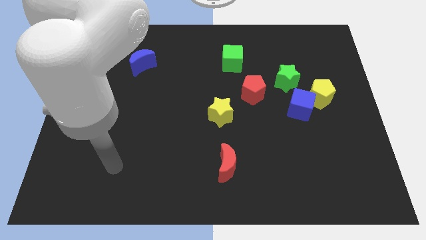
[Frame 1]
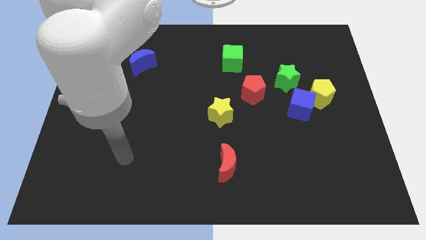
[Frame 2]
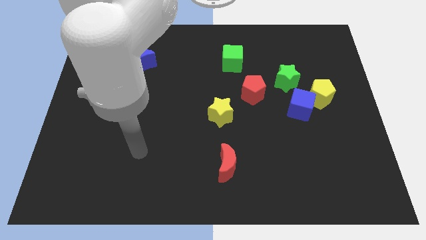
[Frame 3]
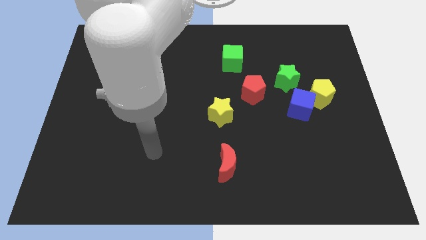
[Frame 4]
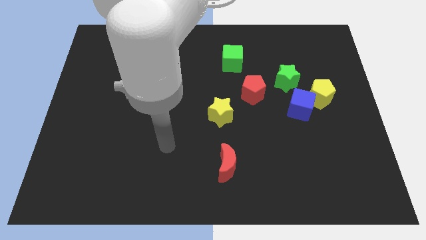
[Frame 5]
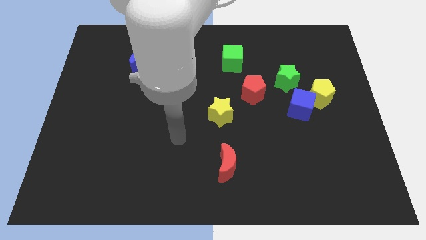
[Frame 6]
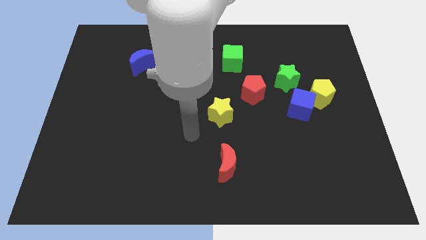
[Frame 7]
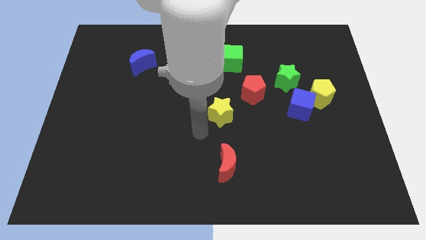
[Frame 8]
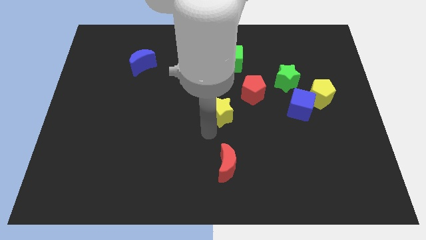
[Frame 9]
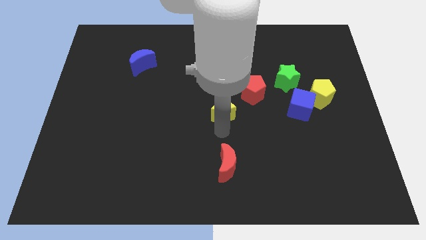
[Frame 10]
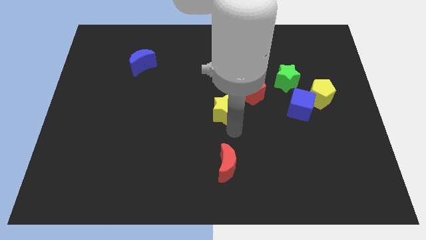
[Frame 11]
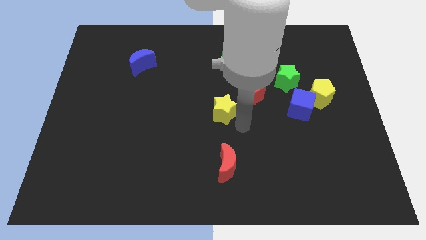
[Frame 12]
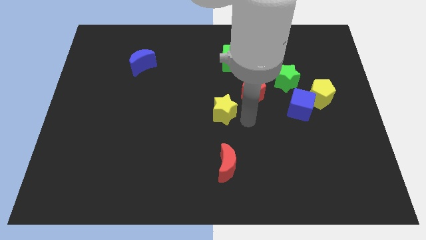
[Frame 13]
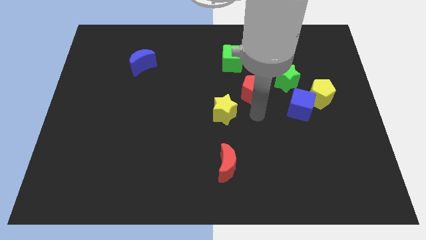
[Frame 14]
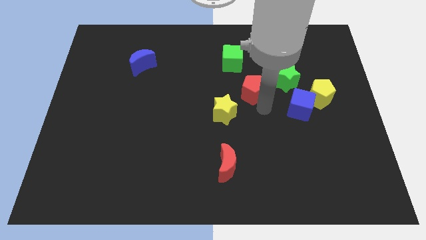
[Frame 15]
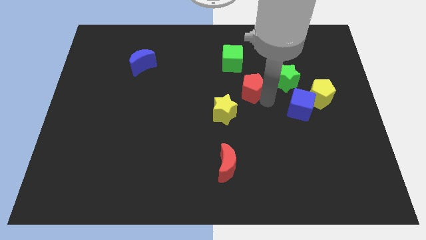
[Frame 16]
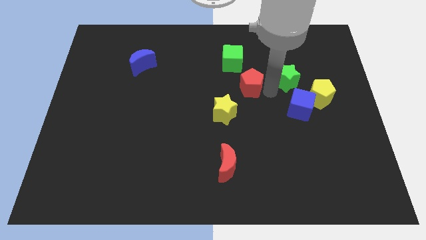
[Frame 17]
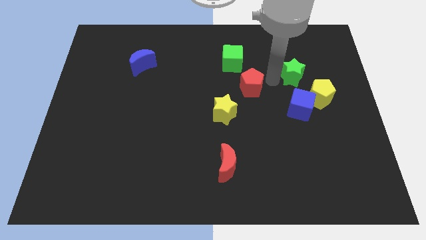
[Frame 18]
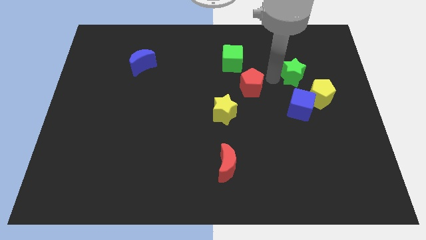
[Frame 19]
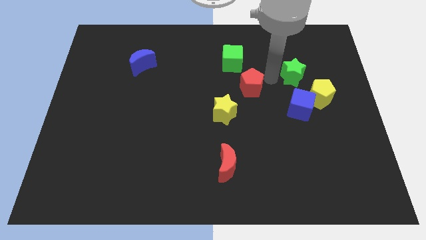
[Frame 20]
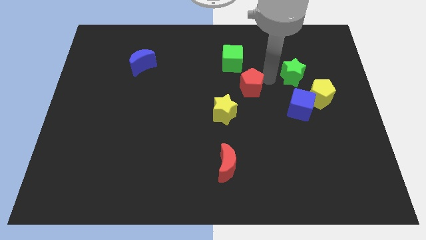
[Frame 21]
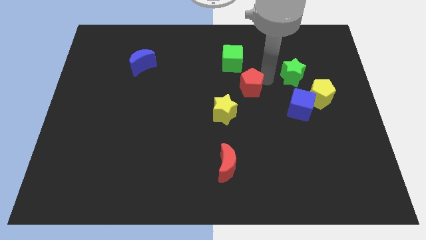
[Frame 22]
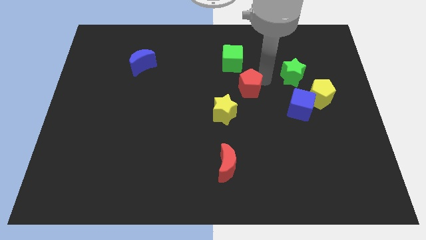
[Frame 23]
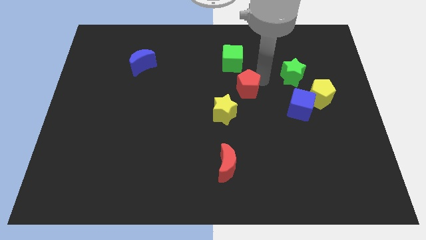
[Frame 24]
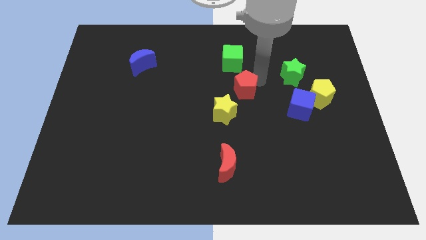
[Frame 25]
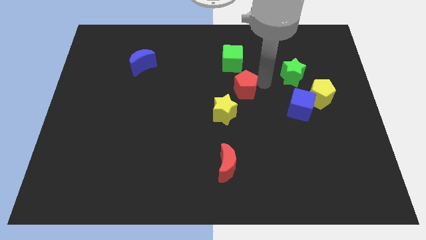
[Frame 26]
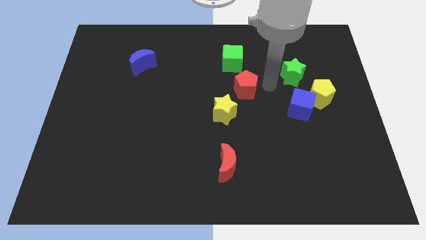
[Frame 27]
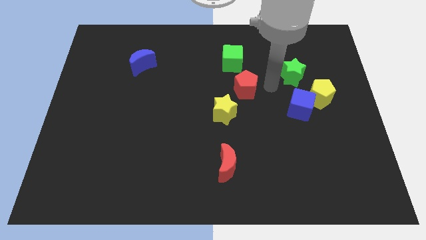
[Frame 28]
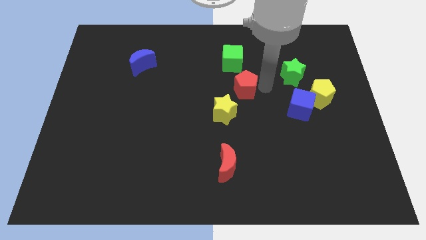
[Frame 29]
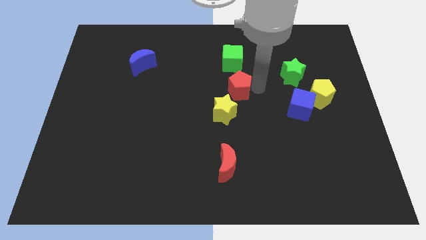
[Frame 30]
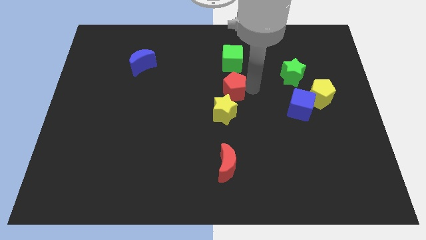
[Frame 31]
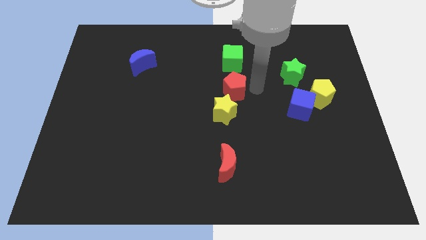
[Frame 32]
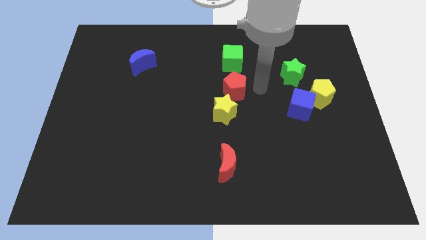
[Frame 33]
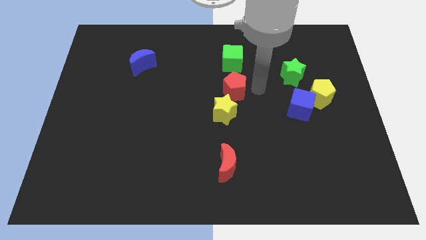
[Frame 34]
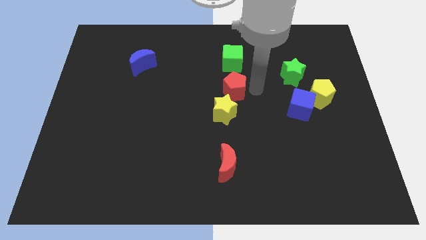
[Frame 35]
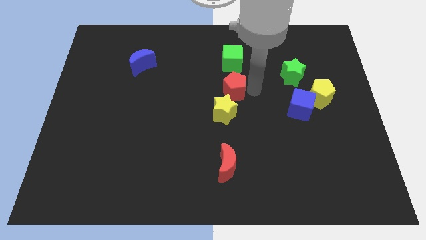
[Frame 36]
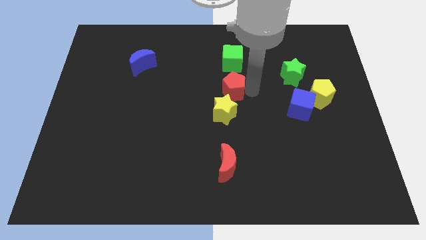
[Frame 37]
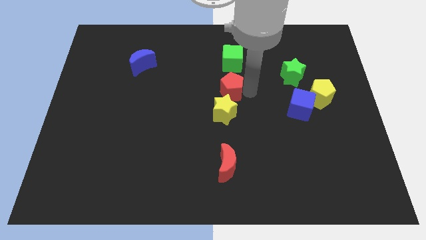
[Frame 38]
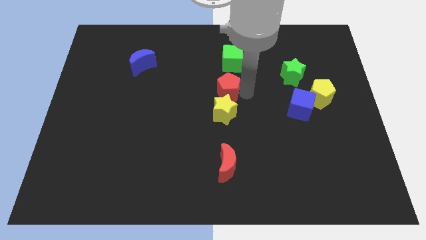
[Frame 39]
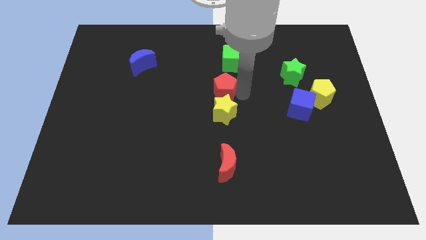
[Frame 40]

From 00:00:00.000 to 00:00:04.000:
push the red pentagon to the left a little

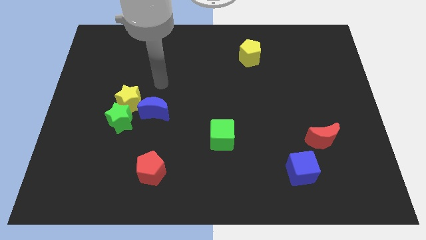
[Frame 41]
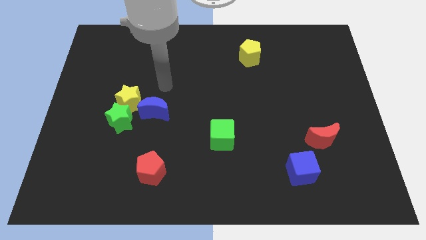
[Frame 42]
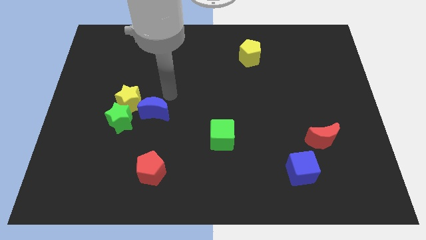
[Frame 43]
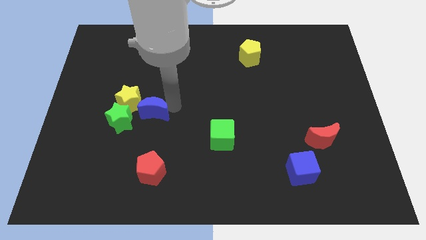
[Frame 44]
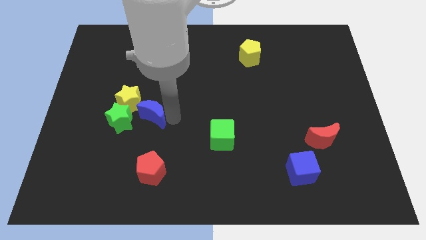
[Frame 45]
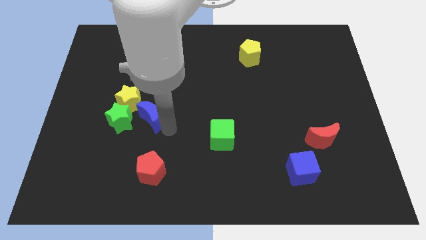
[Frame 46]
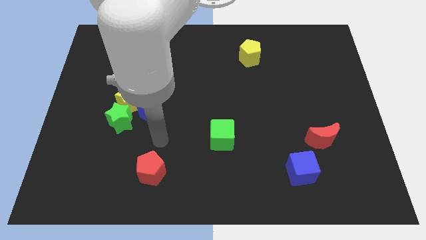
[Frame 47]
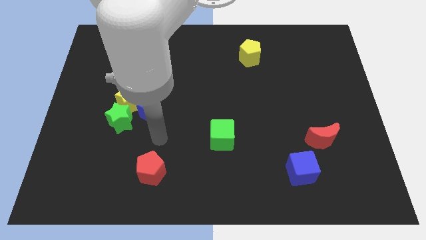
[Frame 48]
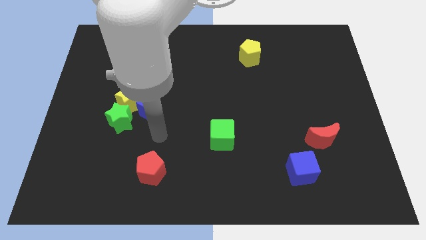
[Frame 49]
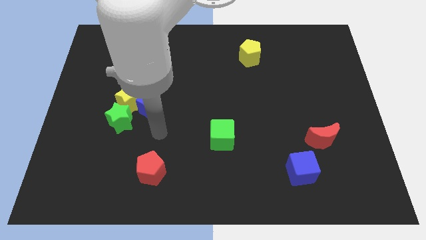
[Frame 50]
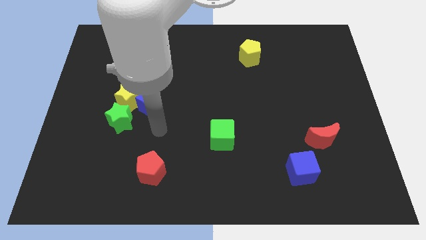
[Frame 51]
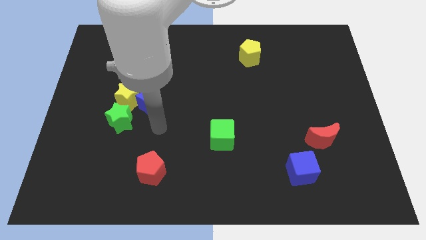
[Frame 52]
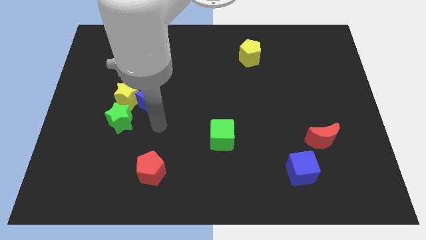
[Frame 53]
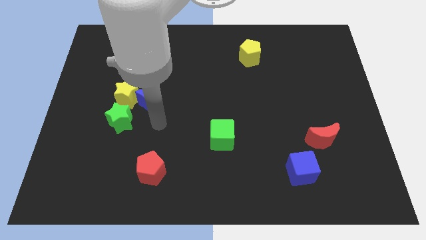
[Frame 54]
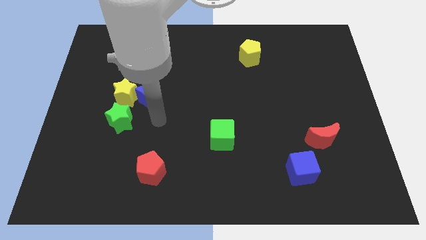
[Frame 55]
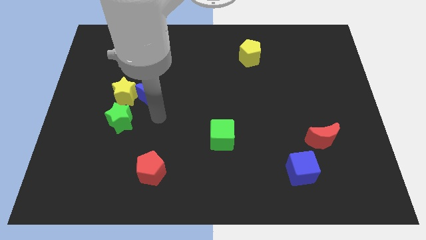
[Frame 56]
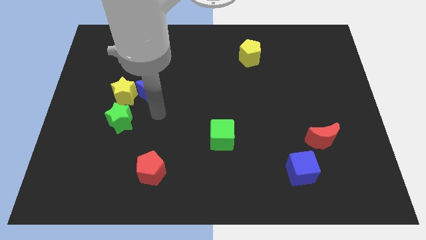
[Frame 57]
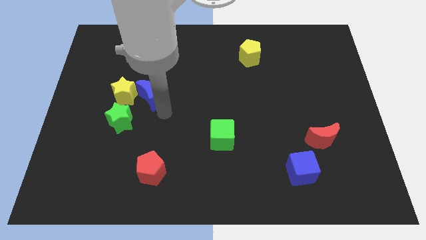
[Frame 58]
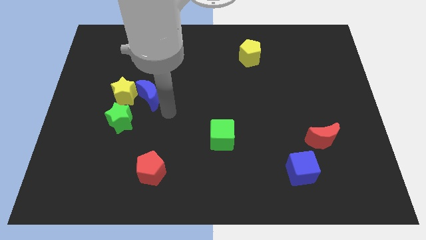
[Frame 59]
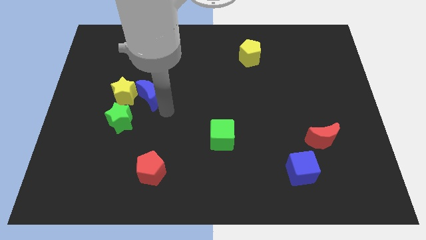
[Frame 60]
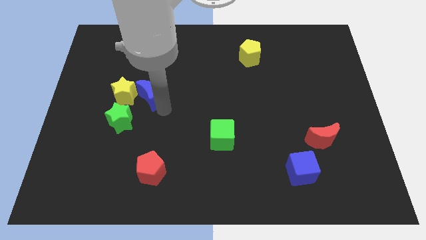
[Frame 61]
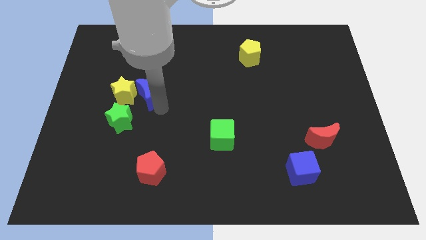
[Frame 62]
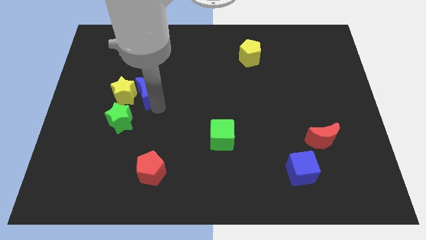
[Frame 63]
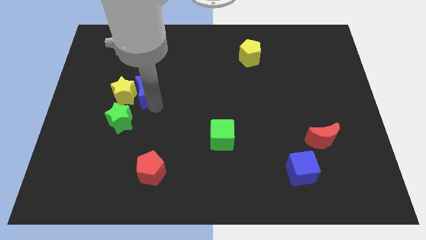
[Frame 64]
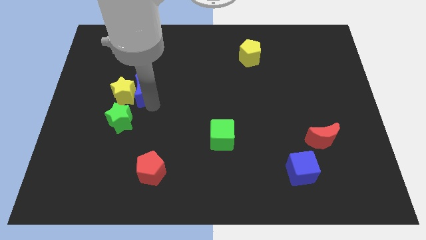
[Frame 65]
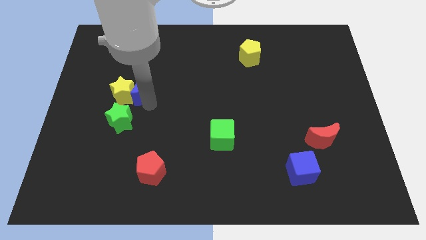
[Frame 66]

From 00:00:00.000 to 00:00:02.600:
slightly slide the blue moon upwards and left diagonally

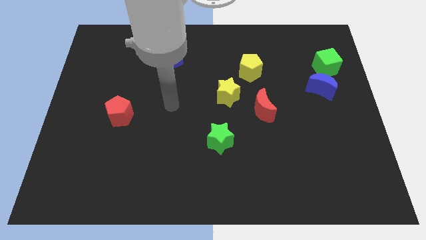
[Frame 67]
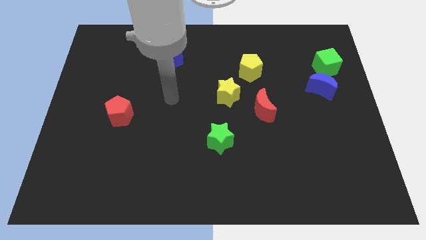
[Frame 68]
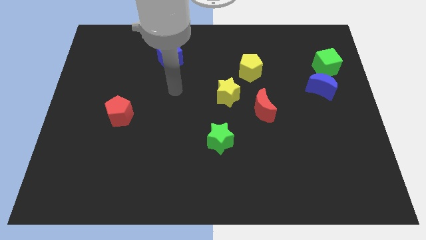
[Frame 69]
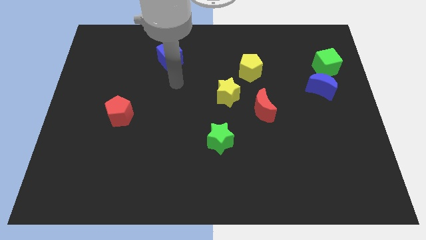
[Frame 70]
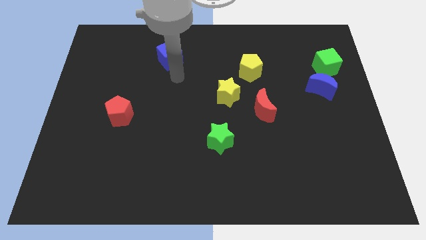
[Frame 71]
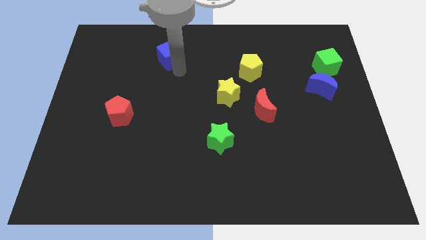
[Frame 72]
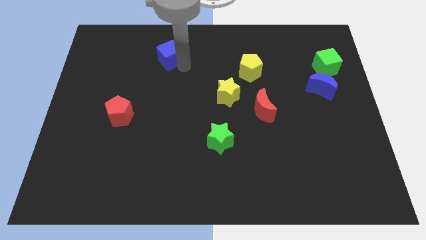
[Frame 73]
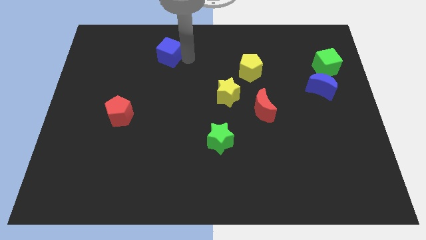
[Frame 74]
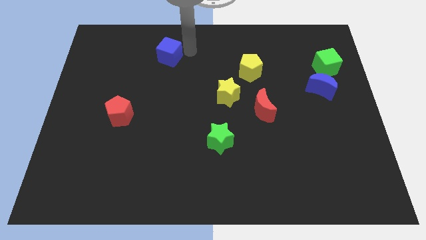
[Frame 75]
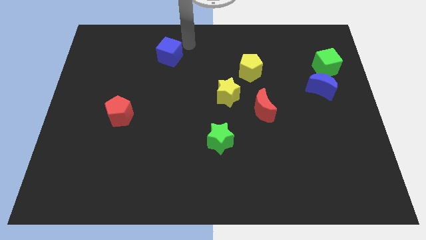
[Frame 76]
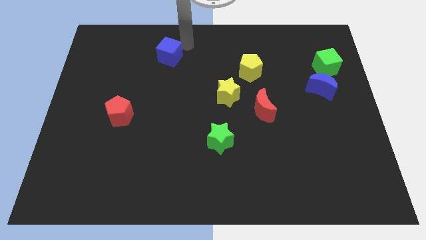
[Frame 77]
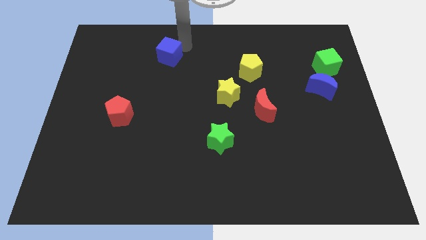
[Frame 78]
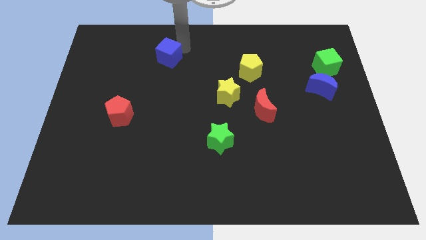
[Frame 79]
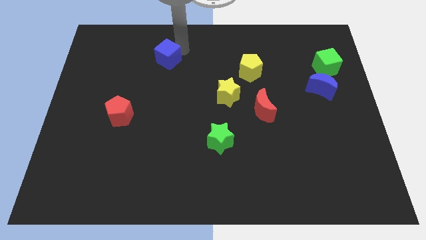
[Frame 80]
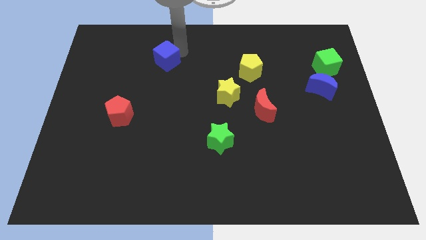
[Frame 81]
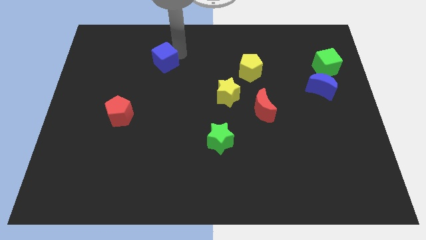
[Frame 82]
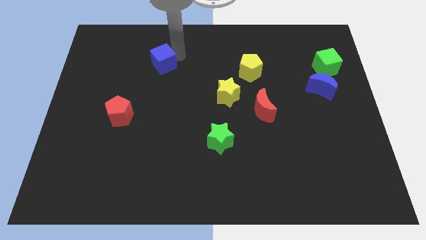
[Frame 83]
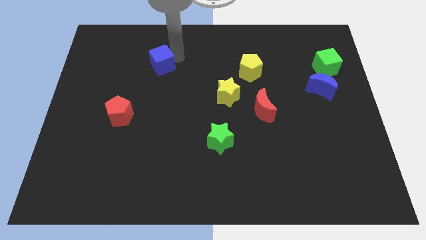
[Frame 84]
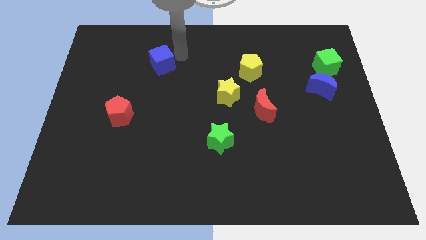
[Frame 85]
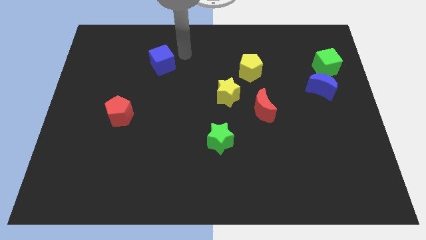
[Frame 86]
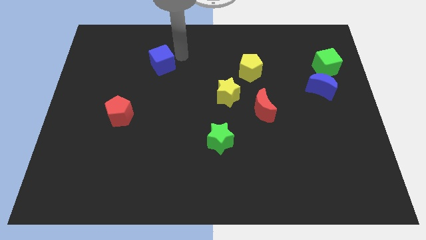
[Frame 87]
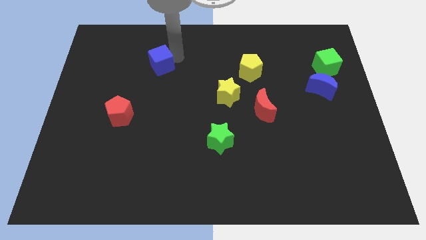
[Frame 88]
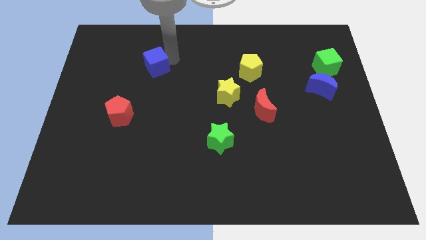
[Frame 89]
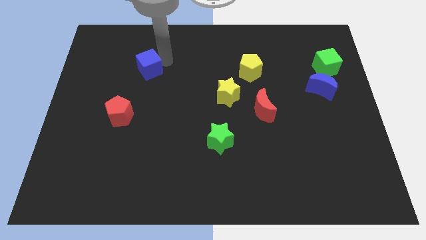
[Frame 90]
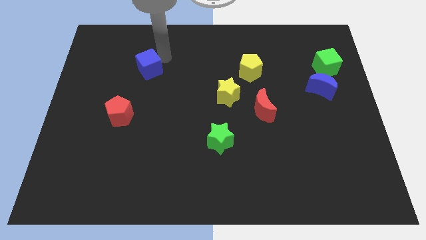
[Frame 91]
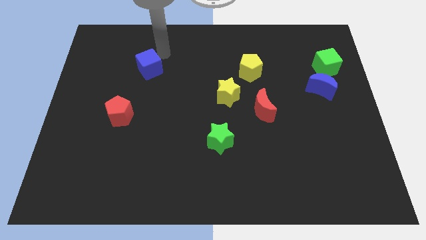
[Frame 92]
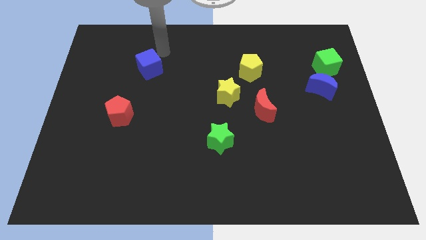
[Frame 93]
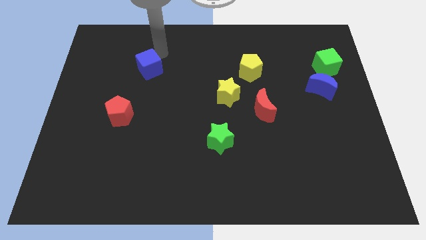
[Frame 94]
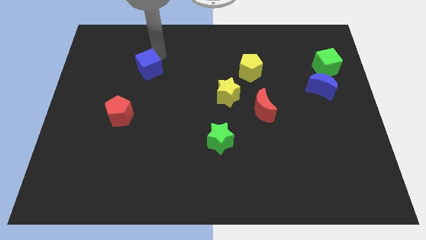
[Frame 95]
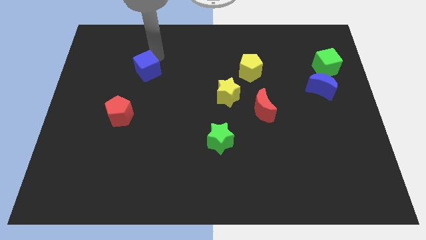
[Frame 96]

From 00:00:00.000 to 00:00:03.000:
move the blue cube somewhat downwards and then to the left
